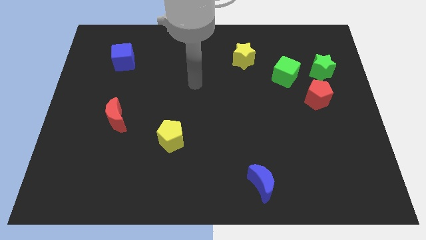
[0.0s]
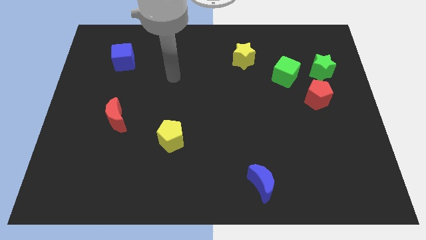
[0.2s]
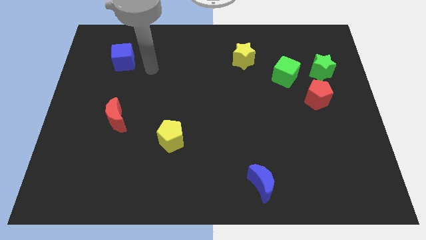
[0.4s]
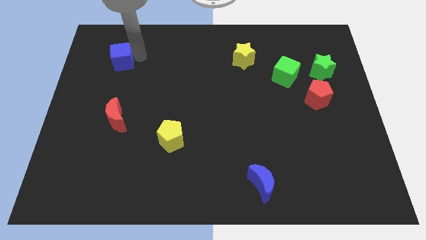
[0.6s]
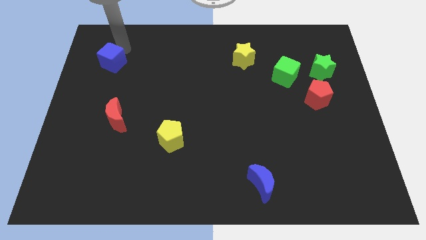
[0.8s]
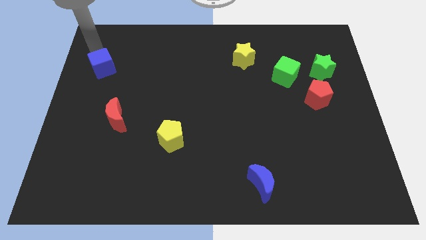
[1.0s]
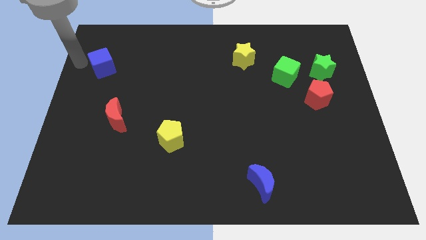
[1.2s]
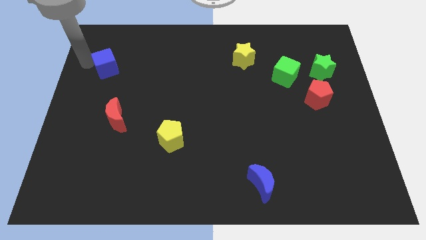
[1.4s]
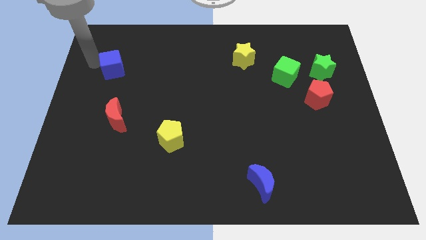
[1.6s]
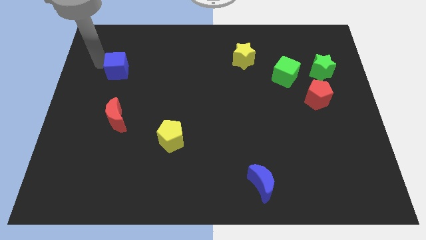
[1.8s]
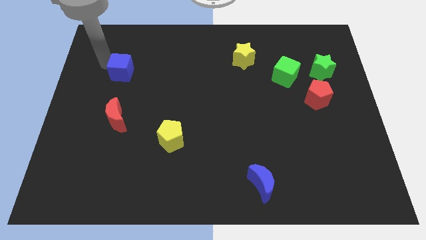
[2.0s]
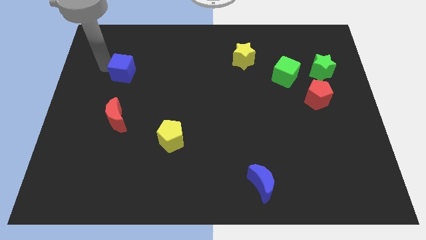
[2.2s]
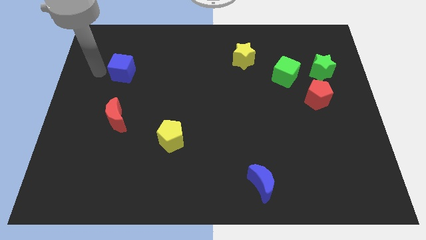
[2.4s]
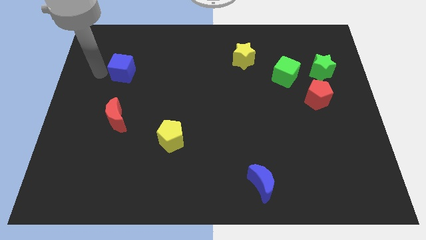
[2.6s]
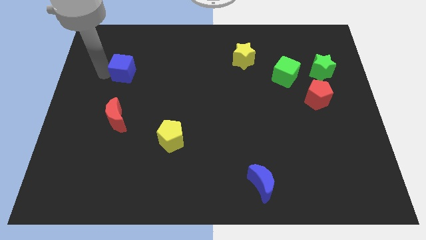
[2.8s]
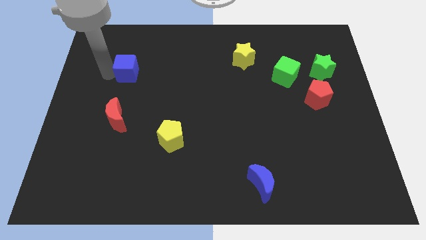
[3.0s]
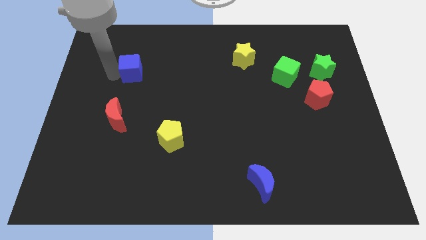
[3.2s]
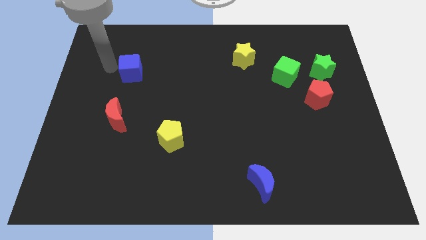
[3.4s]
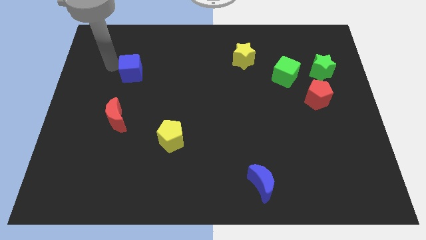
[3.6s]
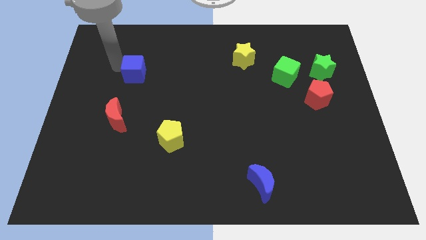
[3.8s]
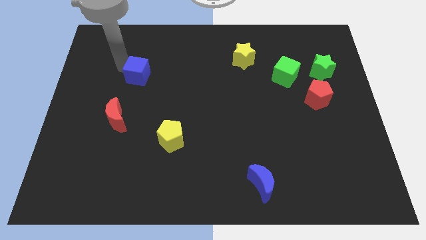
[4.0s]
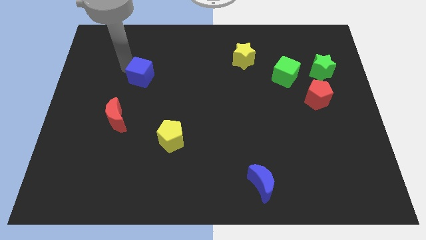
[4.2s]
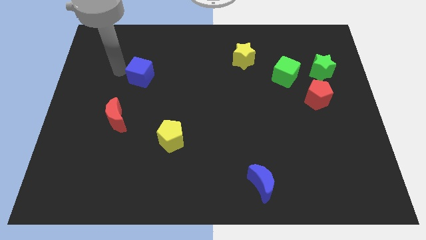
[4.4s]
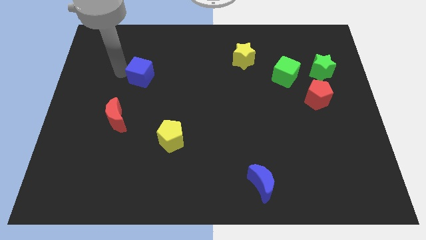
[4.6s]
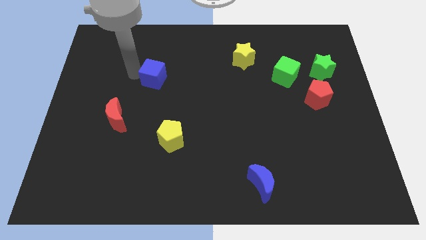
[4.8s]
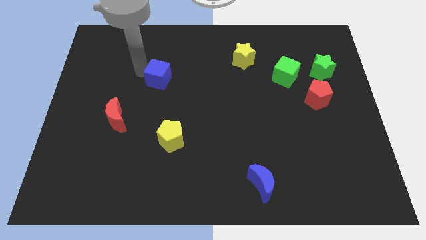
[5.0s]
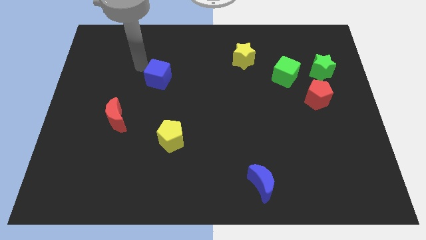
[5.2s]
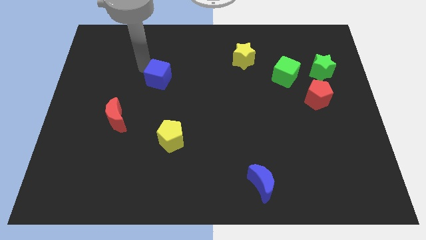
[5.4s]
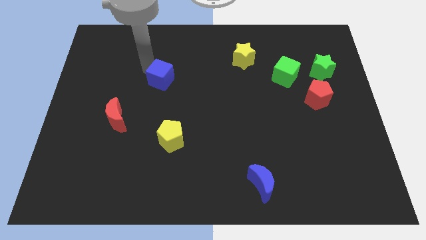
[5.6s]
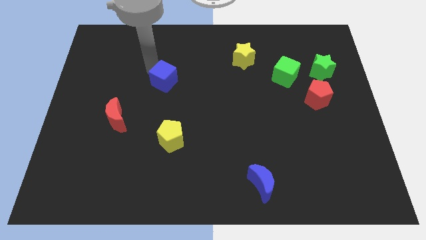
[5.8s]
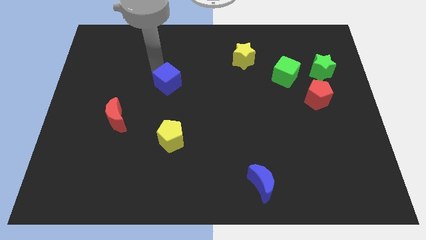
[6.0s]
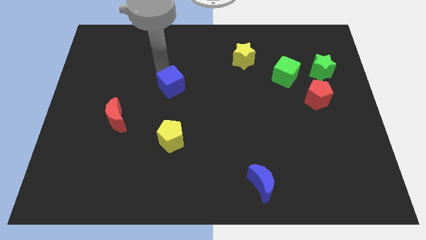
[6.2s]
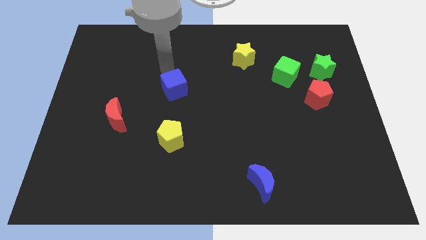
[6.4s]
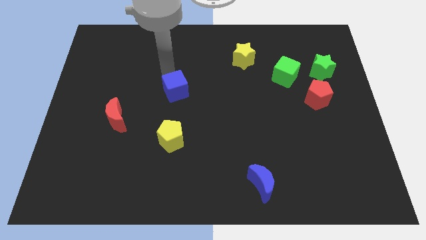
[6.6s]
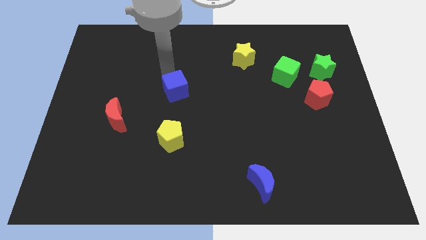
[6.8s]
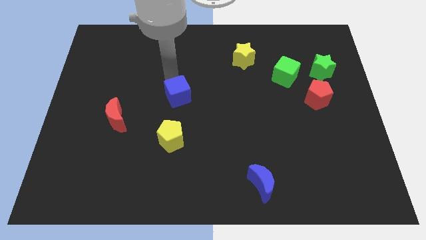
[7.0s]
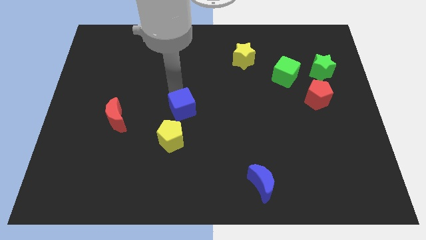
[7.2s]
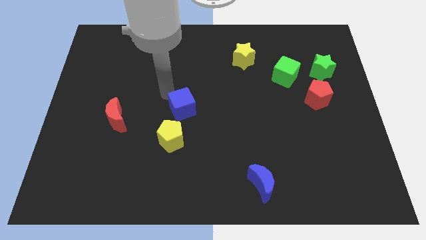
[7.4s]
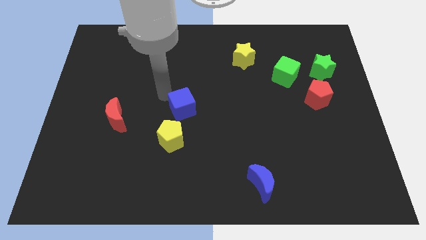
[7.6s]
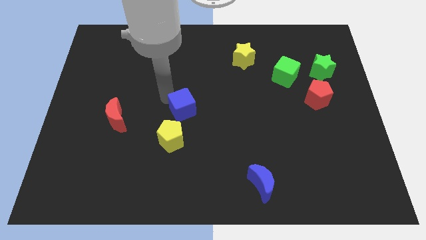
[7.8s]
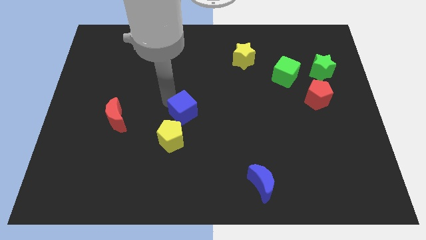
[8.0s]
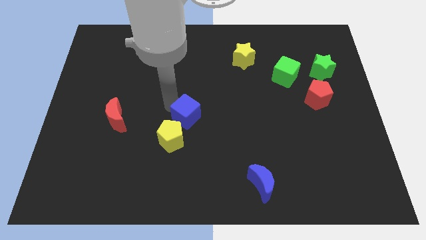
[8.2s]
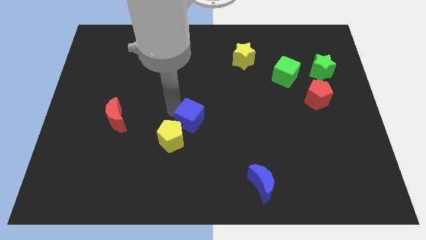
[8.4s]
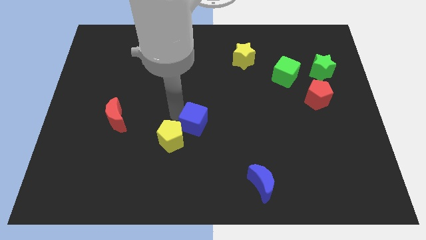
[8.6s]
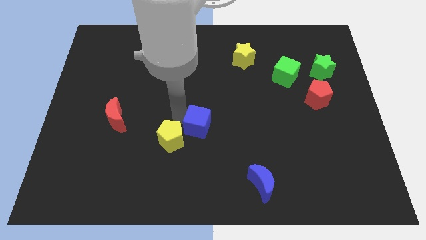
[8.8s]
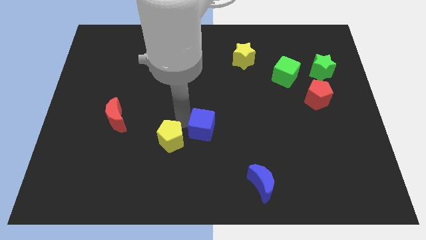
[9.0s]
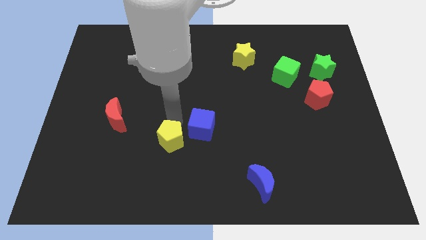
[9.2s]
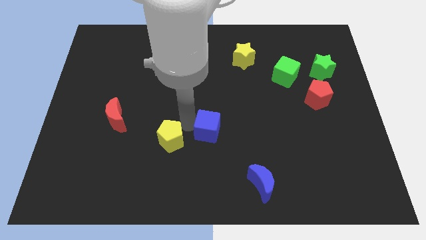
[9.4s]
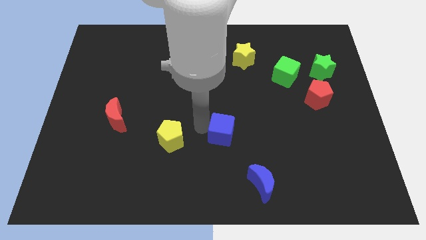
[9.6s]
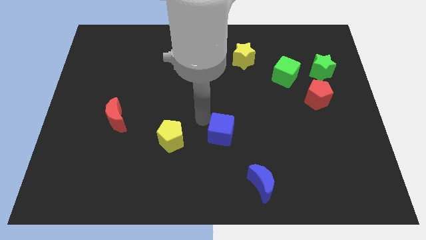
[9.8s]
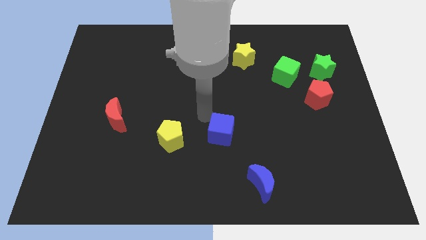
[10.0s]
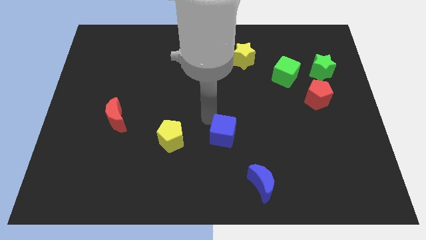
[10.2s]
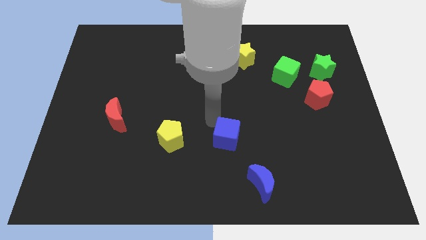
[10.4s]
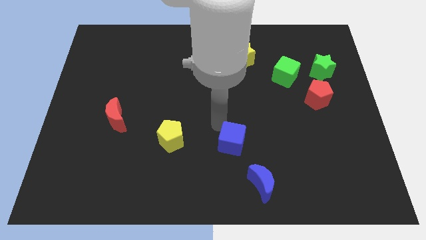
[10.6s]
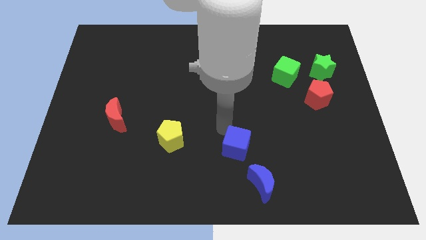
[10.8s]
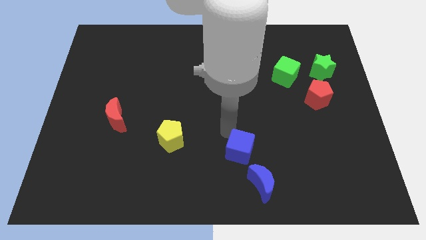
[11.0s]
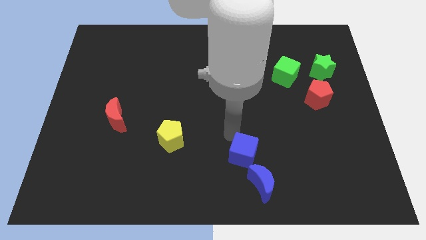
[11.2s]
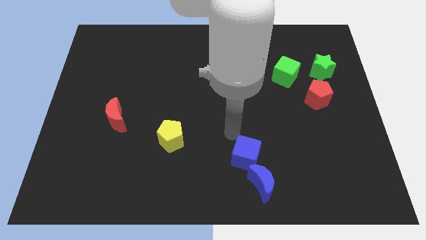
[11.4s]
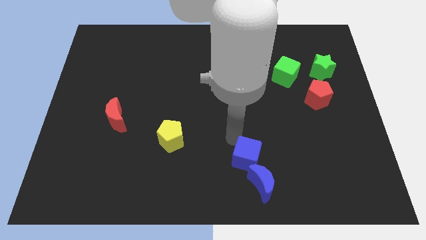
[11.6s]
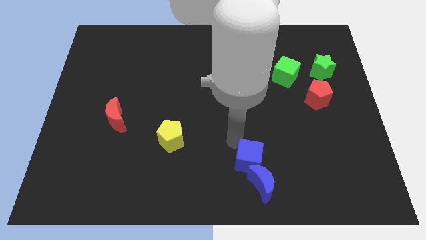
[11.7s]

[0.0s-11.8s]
put the blue cube towards the blue moon

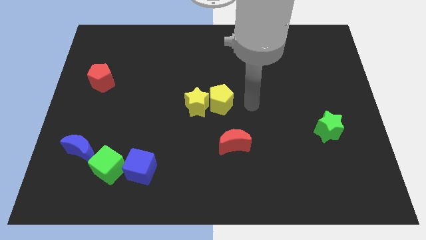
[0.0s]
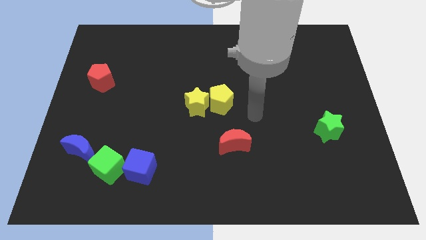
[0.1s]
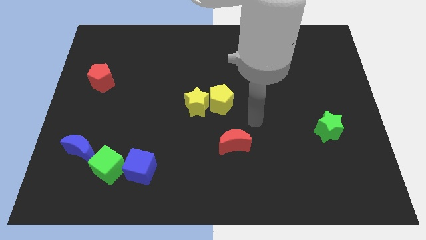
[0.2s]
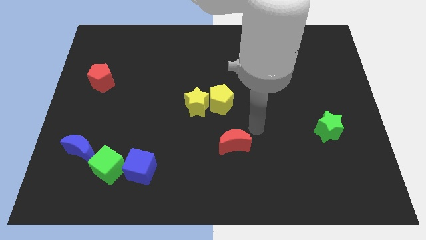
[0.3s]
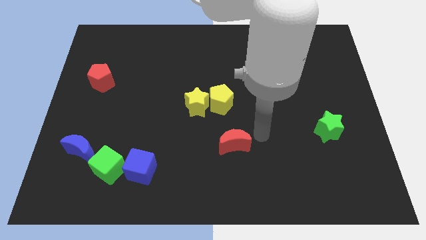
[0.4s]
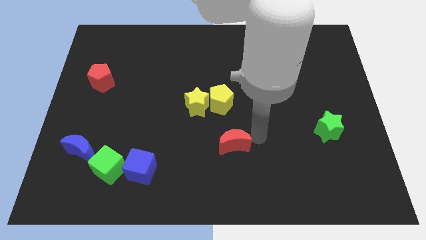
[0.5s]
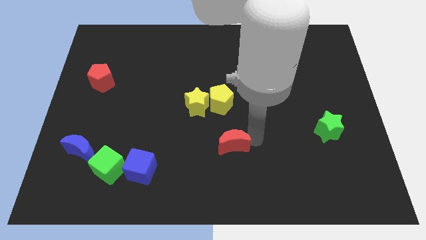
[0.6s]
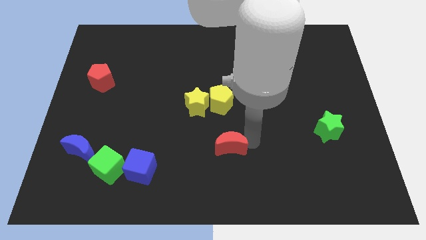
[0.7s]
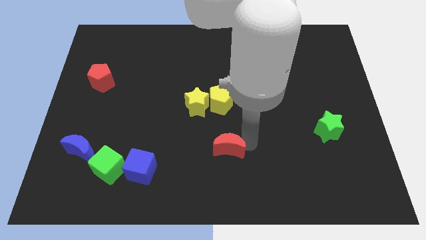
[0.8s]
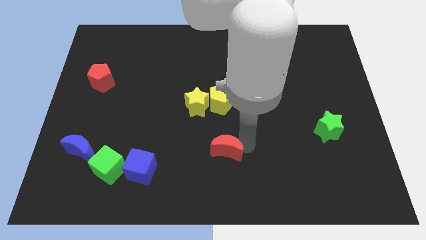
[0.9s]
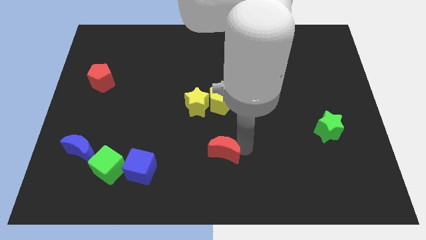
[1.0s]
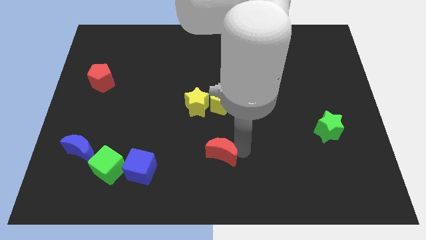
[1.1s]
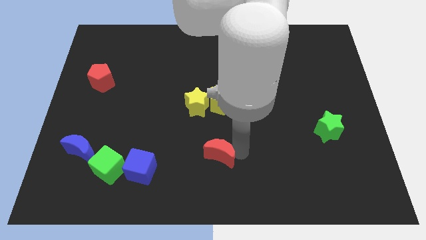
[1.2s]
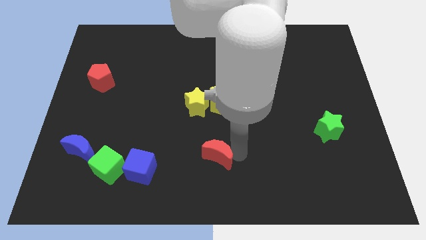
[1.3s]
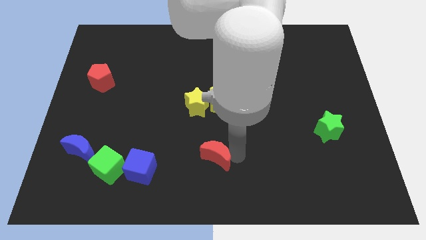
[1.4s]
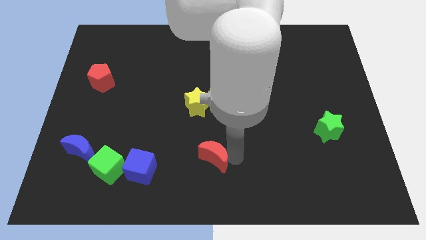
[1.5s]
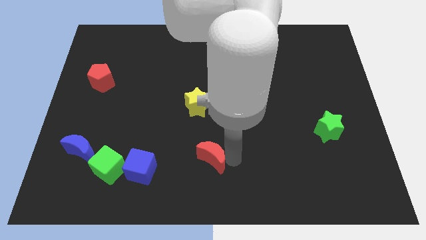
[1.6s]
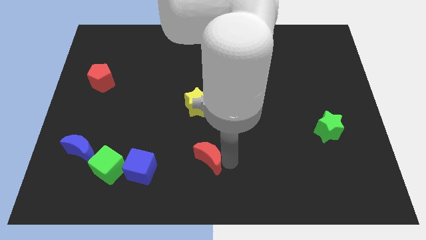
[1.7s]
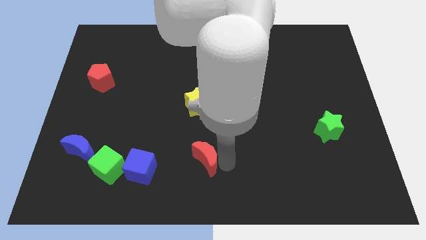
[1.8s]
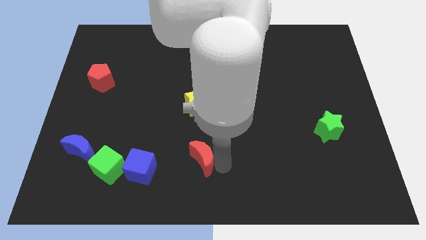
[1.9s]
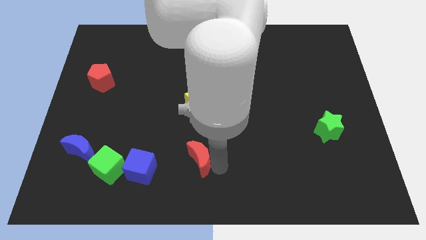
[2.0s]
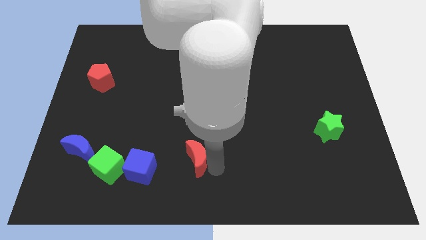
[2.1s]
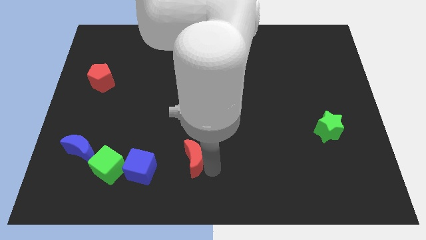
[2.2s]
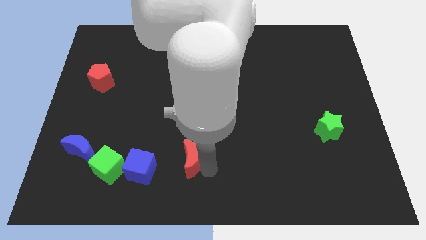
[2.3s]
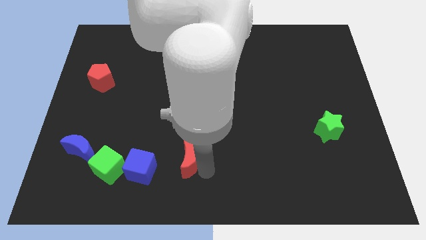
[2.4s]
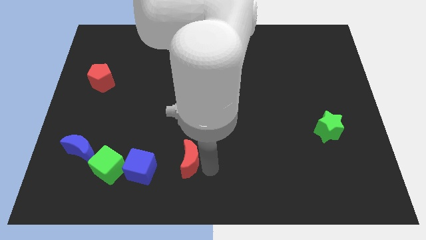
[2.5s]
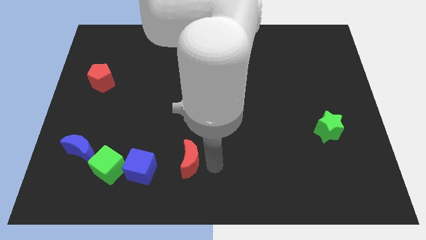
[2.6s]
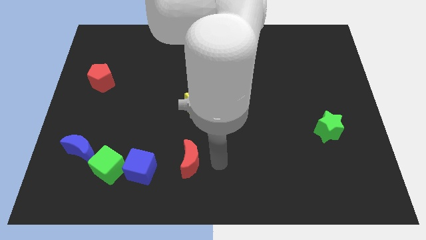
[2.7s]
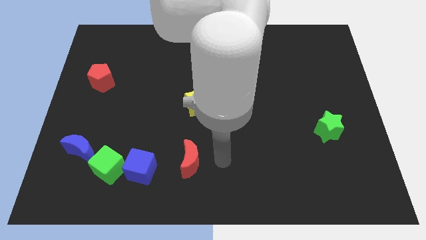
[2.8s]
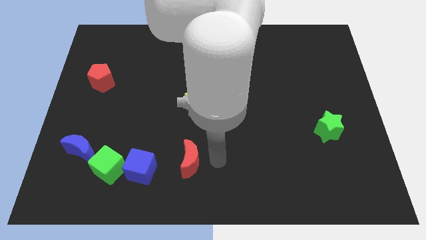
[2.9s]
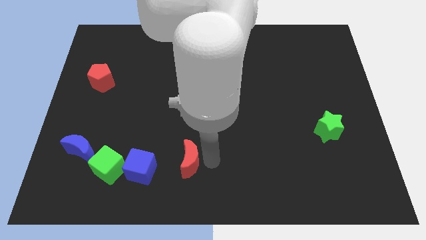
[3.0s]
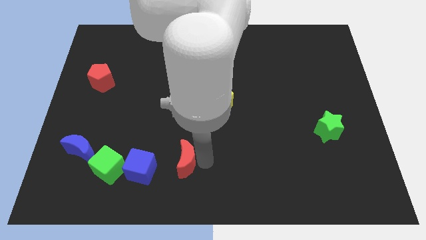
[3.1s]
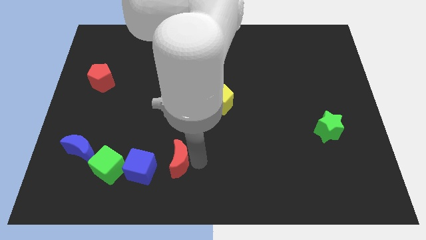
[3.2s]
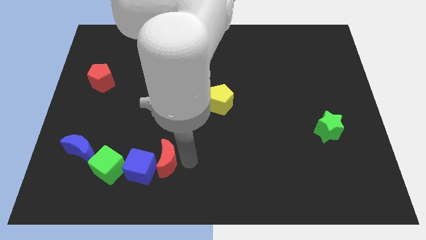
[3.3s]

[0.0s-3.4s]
put the red moon close to the blue cube
